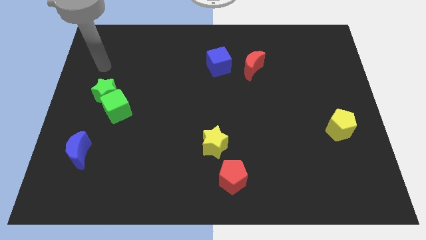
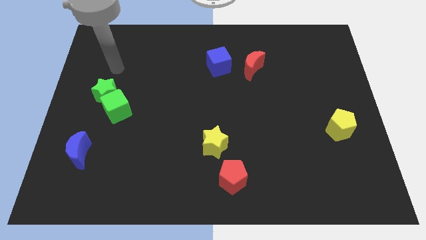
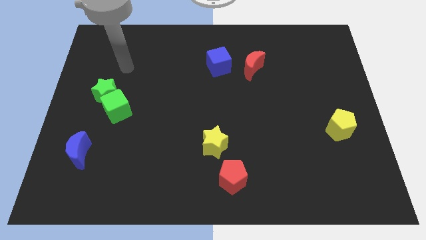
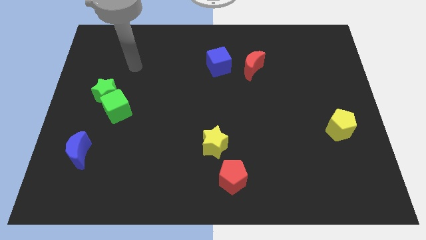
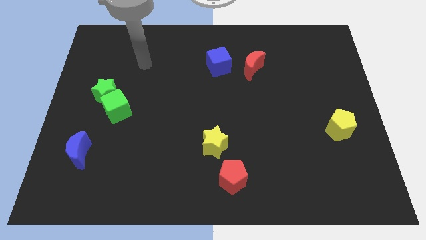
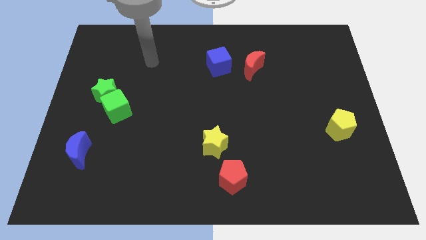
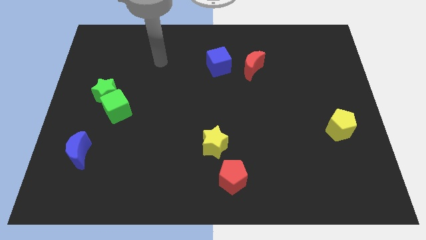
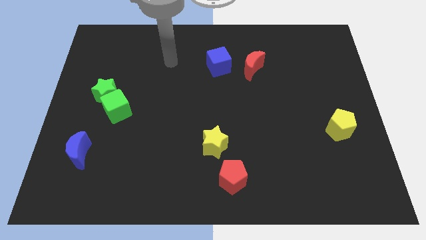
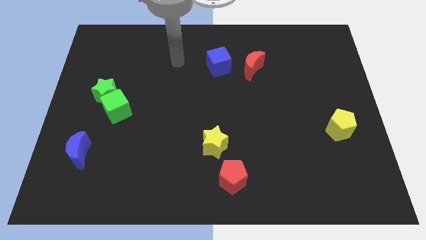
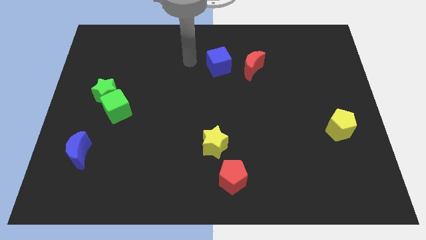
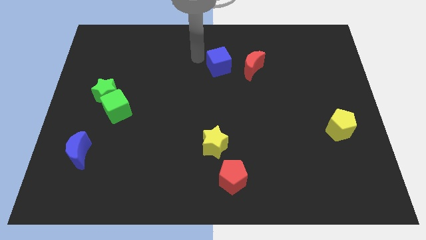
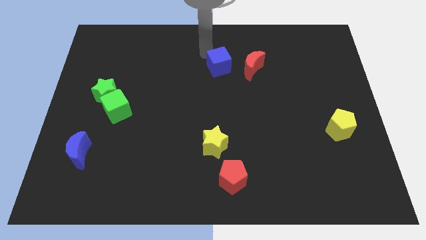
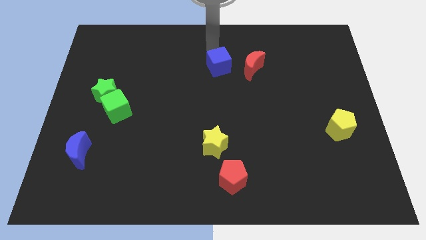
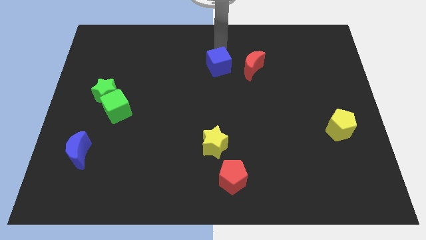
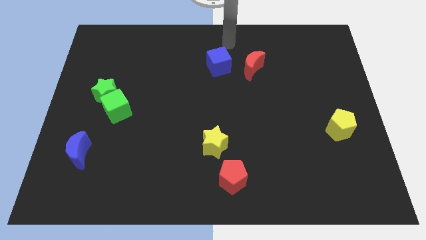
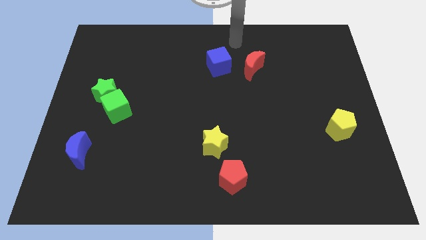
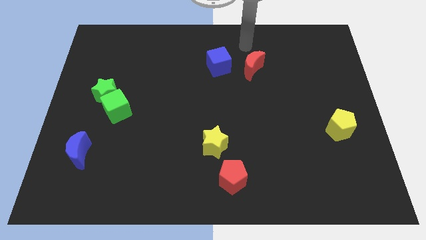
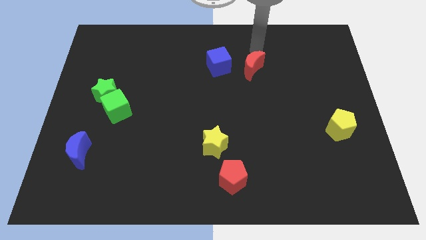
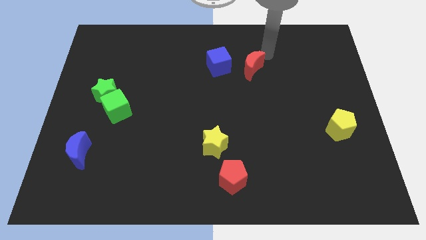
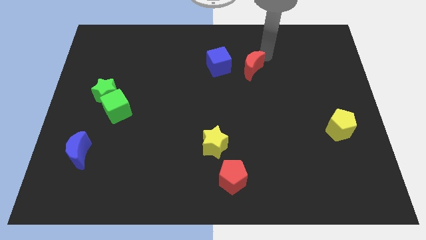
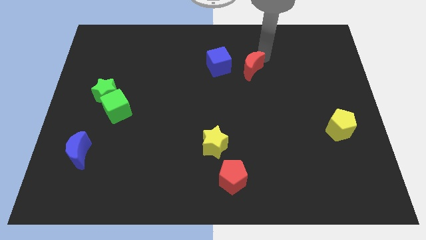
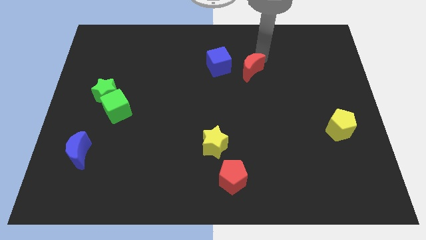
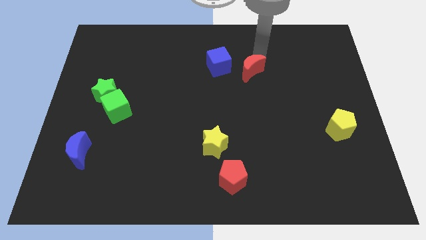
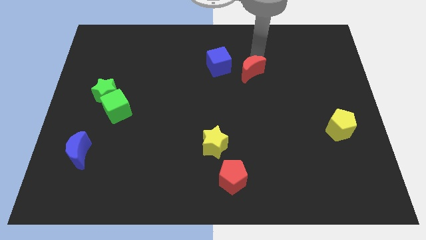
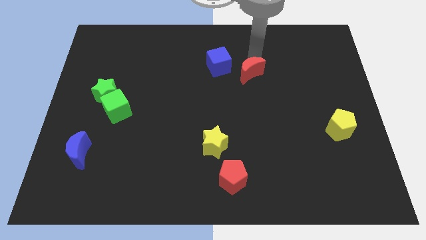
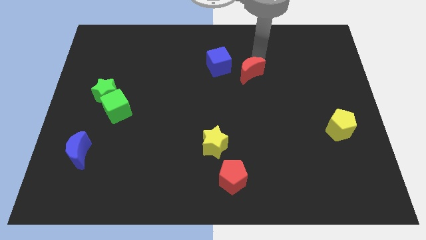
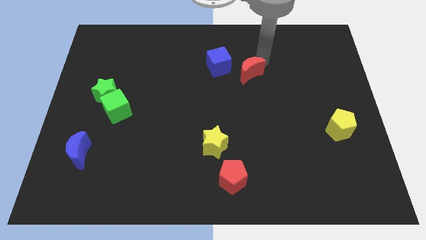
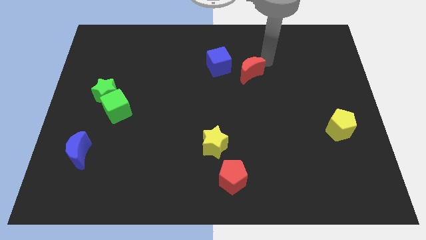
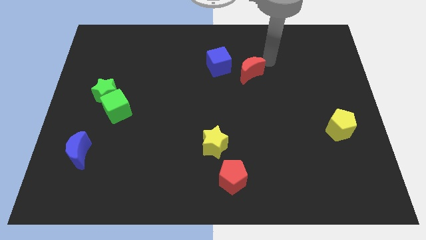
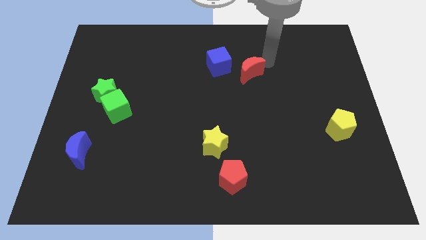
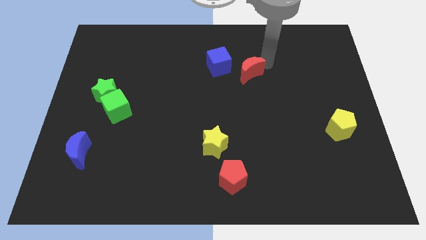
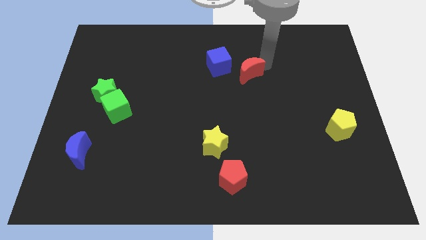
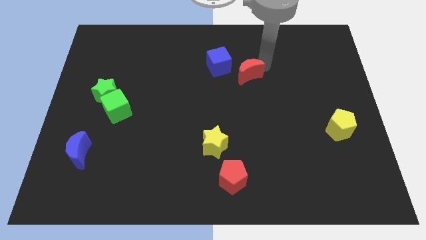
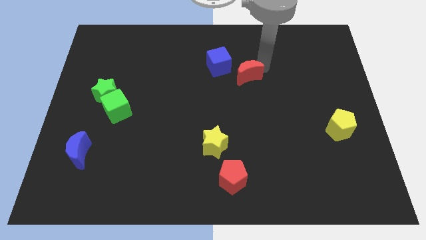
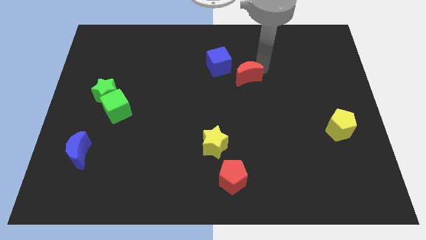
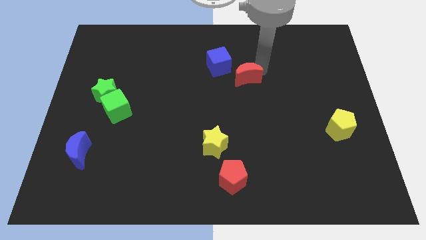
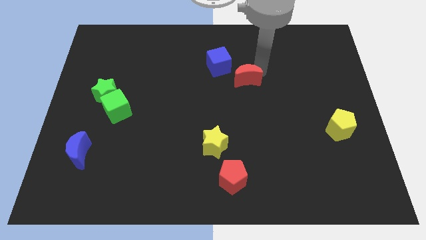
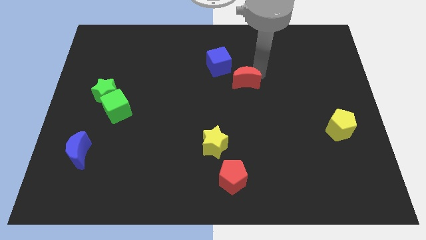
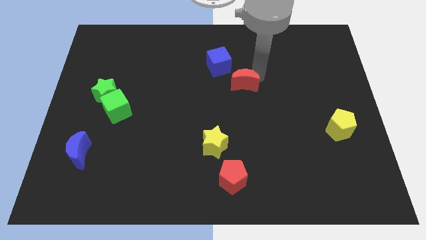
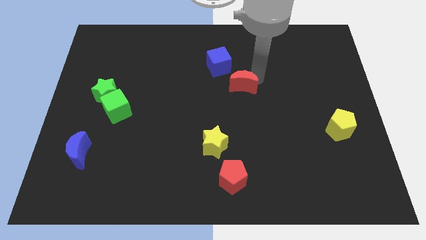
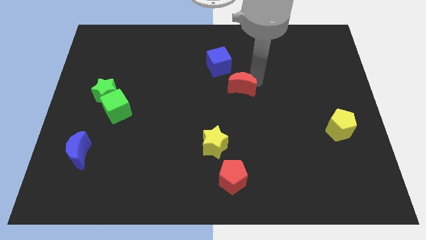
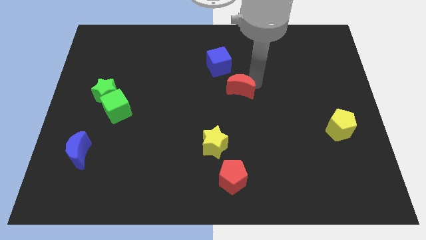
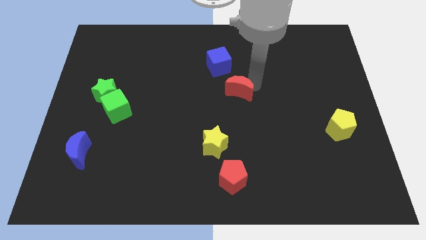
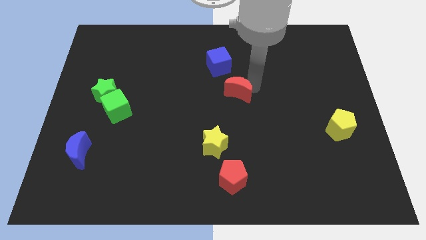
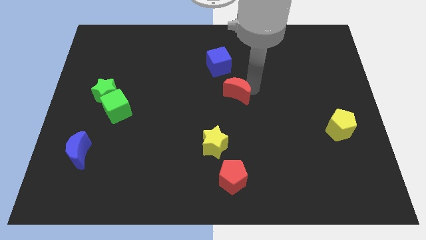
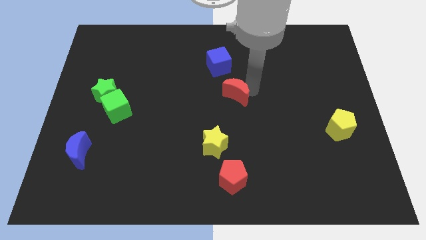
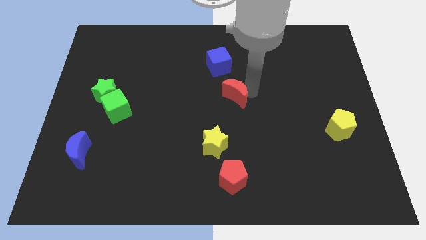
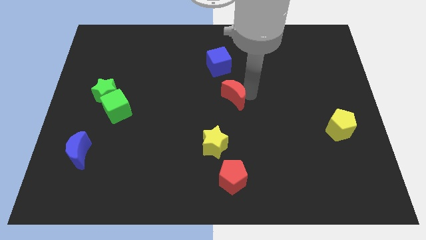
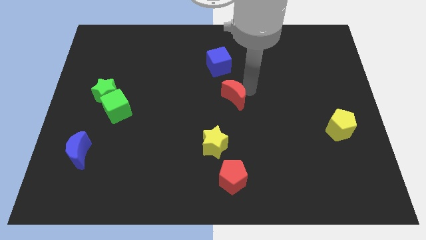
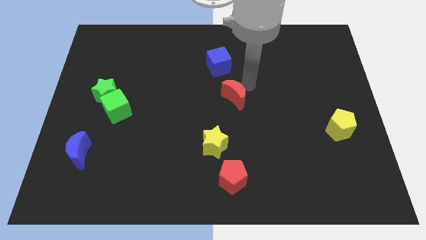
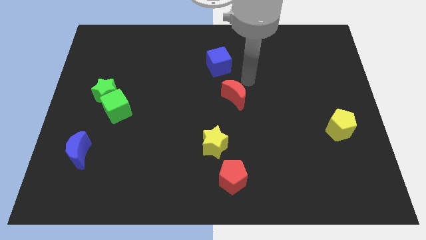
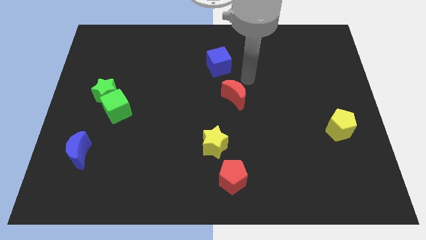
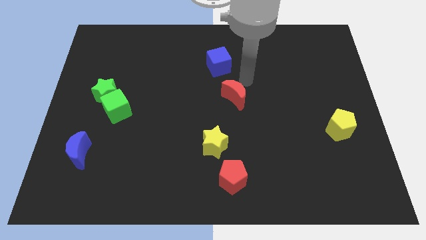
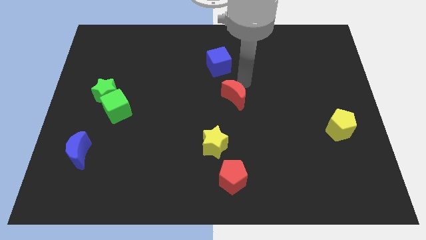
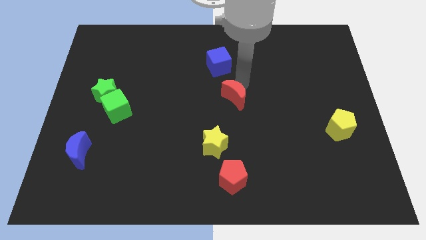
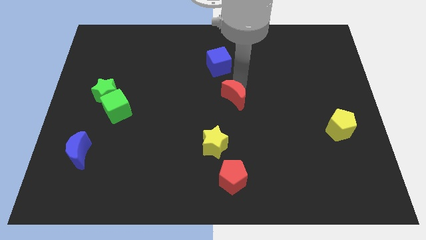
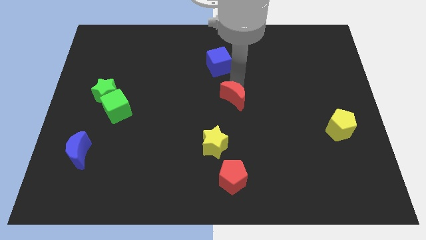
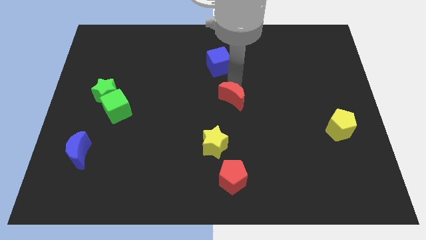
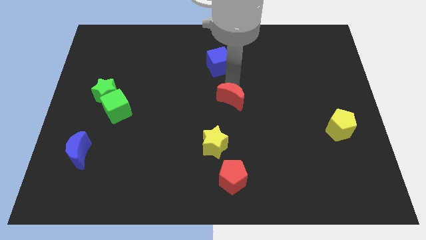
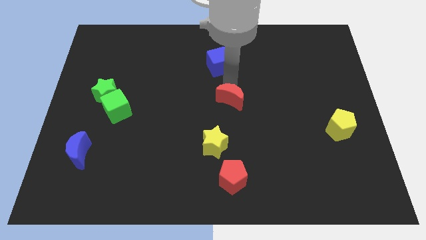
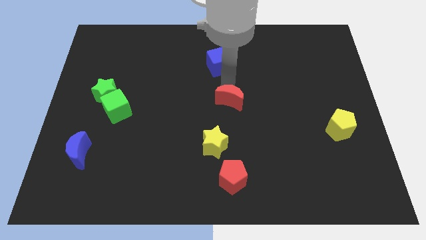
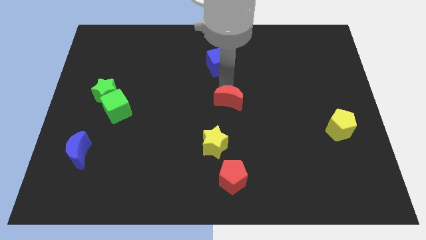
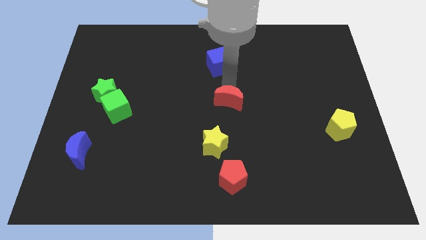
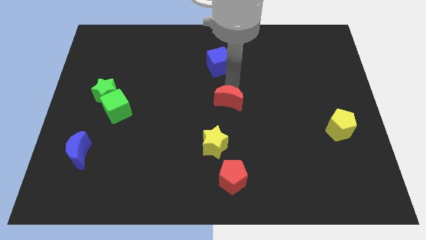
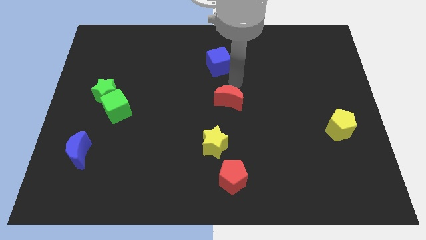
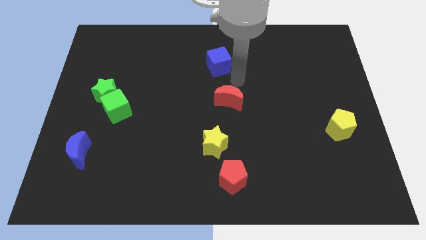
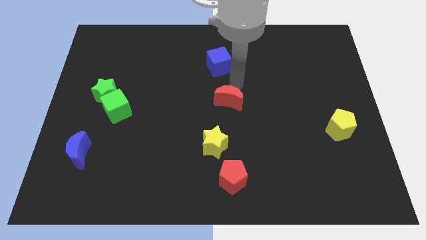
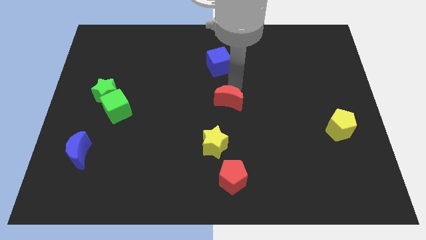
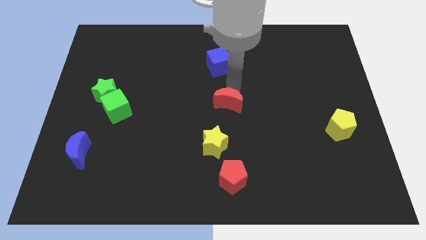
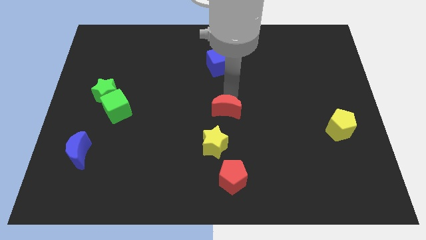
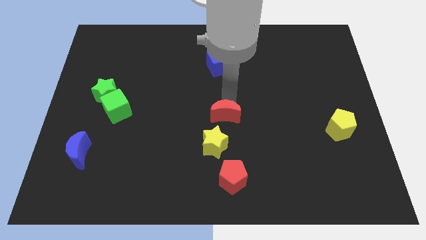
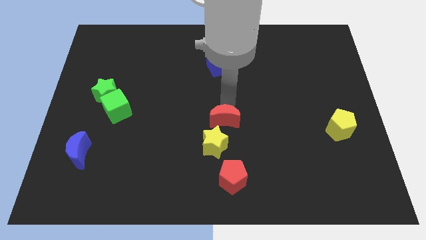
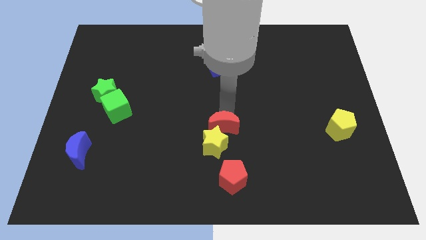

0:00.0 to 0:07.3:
slide the red moon to the yellow star
